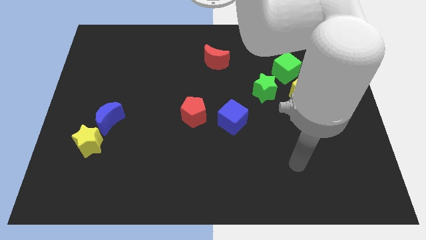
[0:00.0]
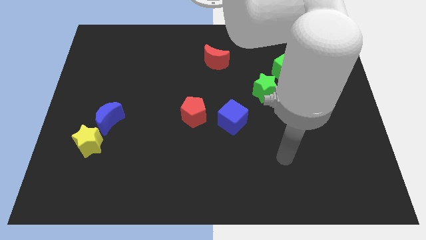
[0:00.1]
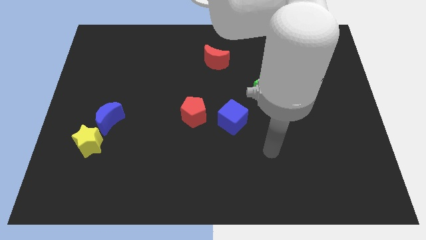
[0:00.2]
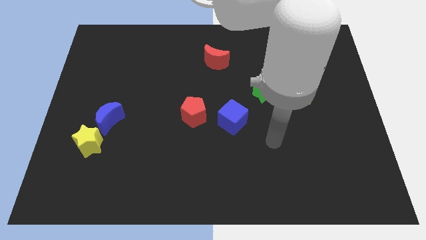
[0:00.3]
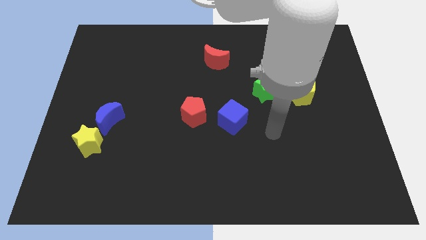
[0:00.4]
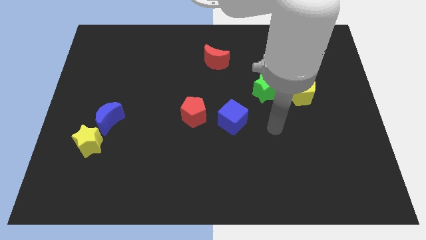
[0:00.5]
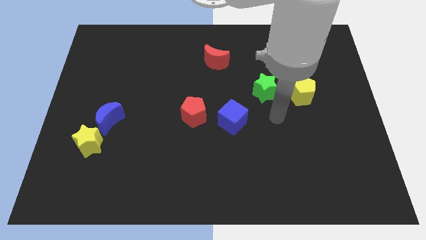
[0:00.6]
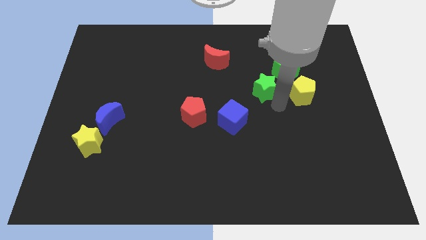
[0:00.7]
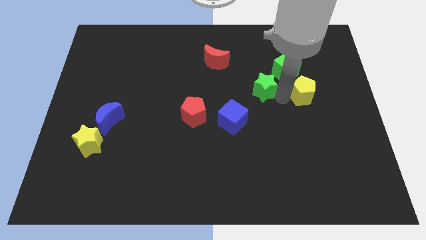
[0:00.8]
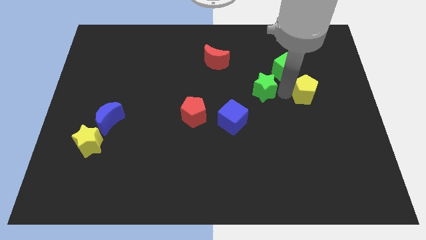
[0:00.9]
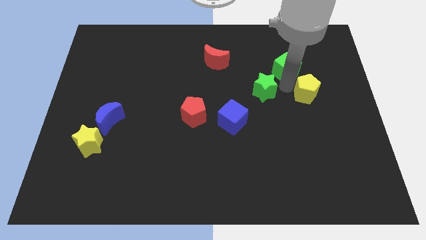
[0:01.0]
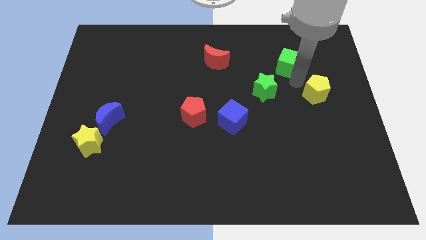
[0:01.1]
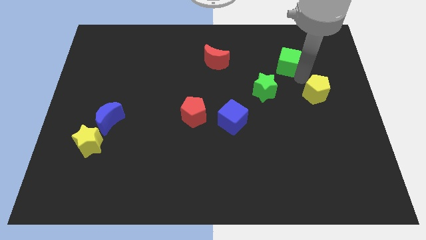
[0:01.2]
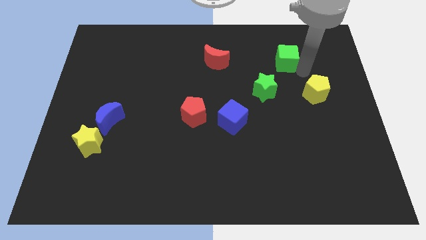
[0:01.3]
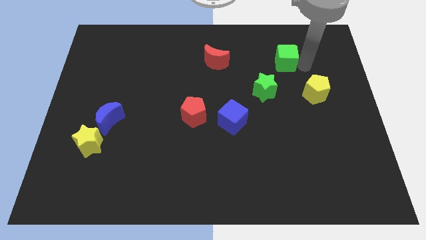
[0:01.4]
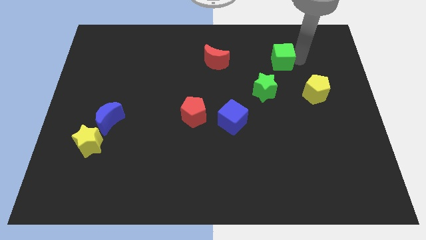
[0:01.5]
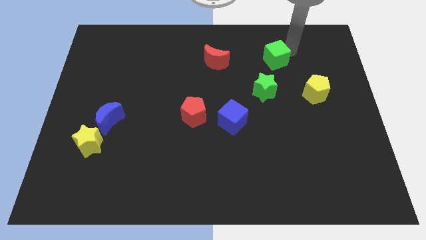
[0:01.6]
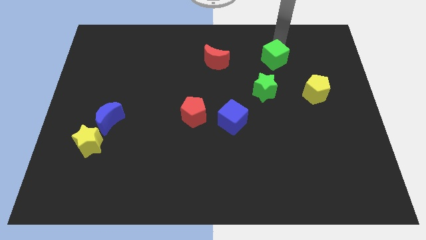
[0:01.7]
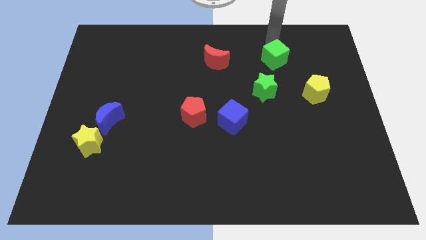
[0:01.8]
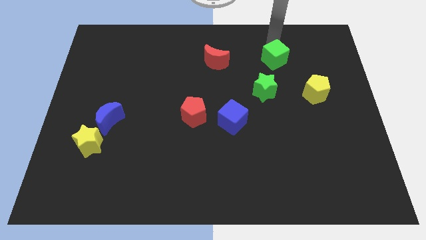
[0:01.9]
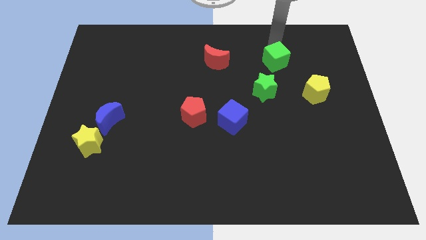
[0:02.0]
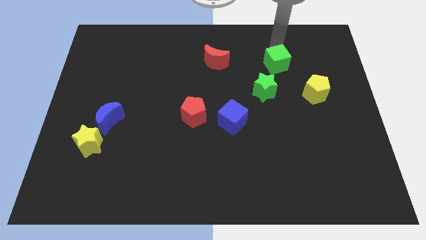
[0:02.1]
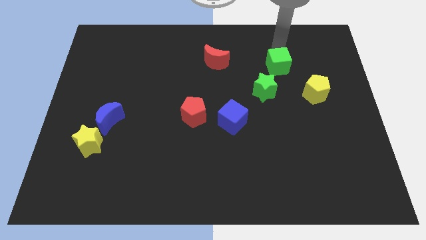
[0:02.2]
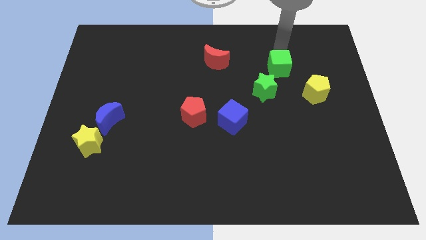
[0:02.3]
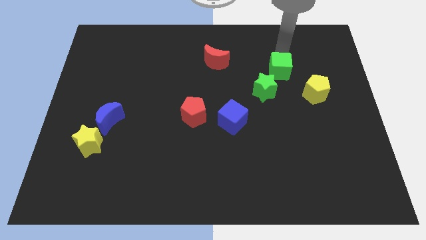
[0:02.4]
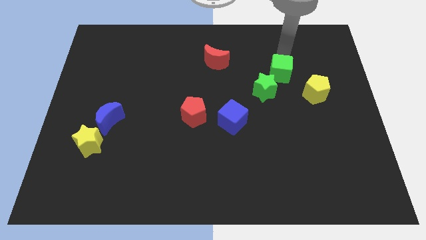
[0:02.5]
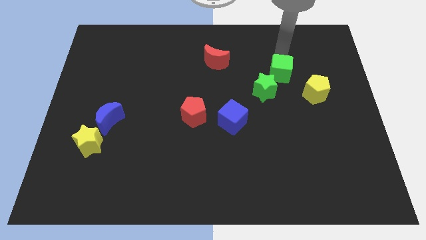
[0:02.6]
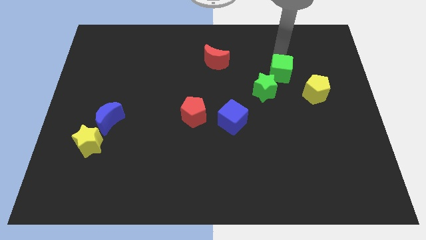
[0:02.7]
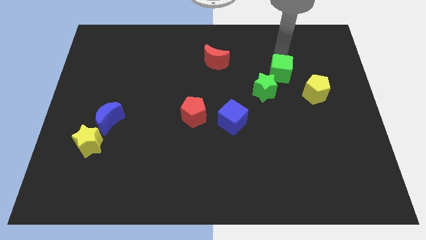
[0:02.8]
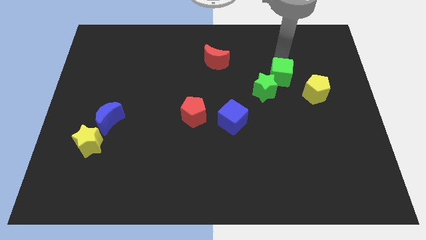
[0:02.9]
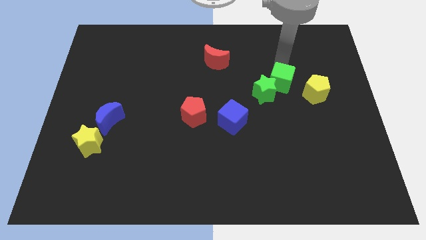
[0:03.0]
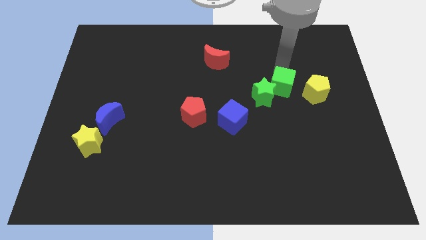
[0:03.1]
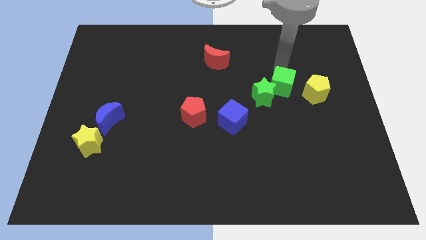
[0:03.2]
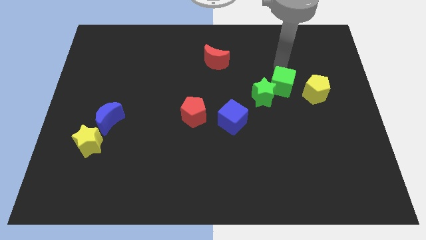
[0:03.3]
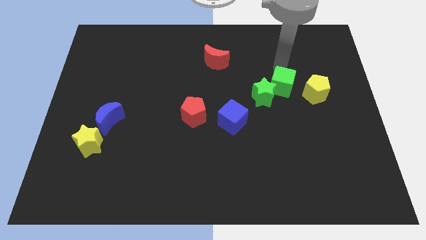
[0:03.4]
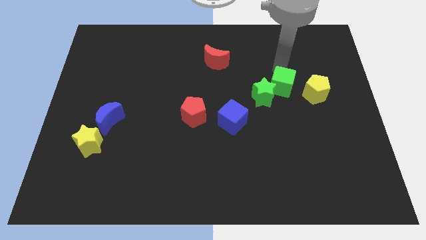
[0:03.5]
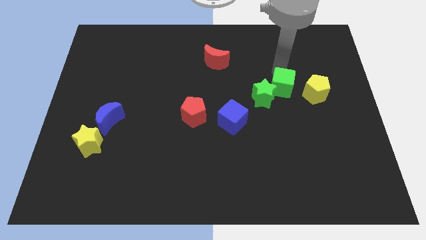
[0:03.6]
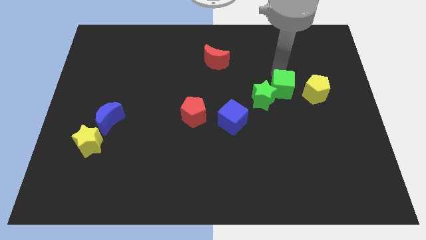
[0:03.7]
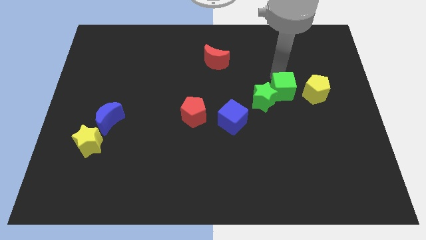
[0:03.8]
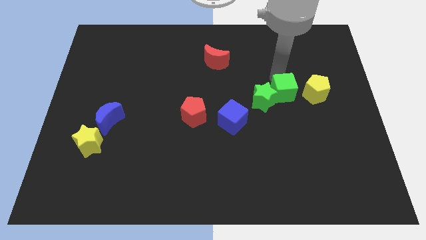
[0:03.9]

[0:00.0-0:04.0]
slightly move the green cube downwards

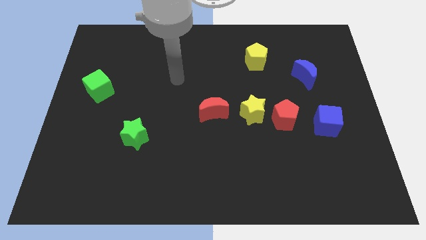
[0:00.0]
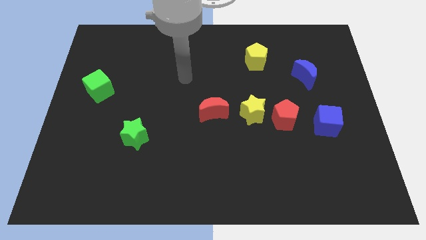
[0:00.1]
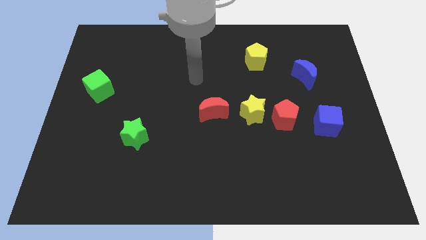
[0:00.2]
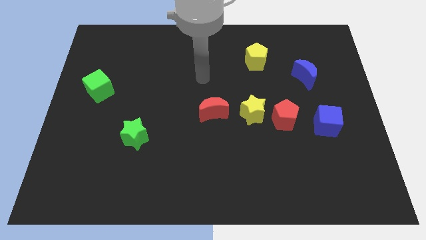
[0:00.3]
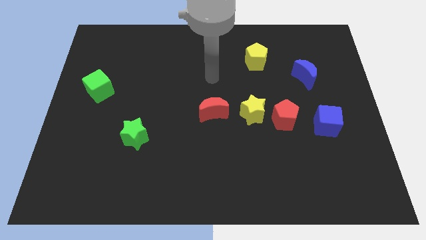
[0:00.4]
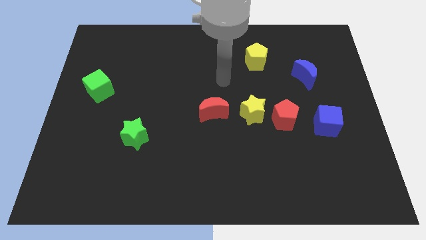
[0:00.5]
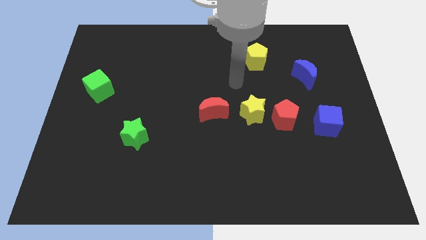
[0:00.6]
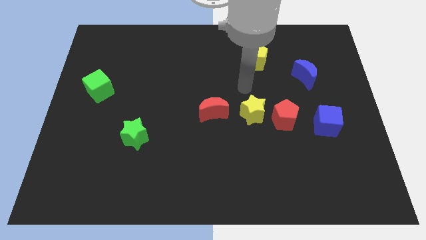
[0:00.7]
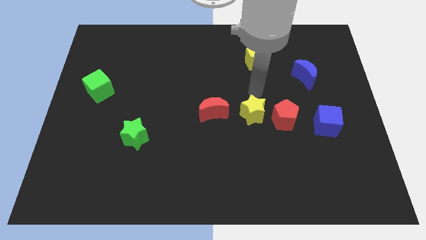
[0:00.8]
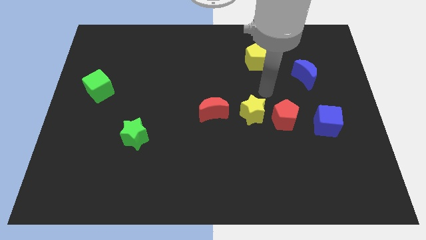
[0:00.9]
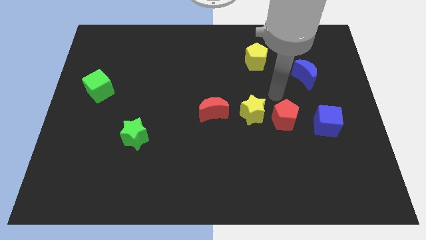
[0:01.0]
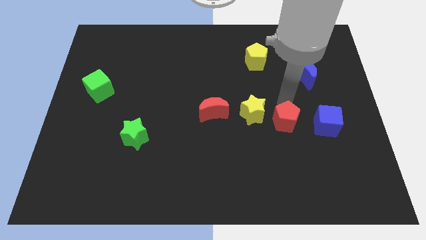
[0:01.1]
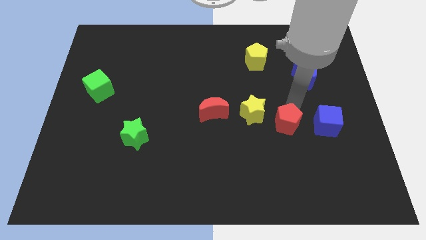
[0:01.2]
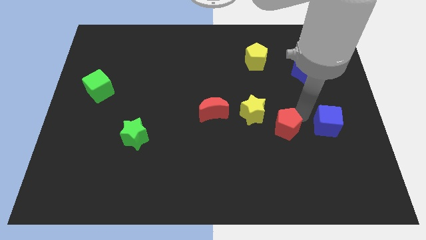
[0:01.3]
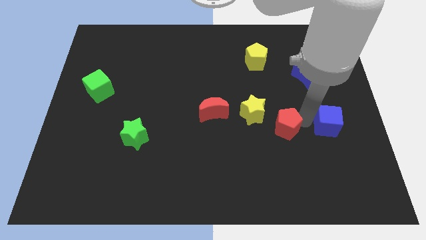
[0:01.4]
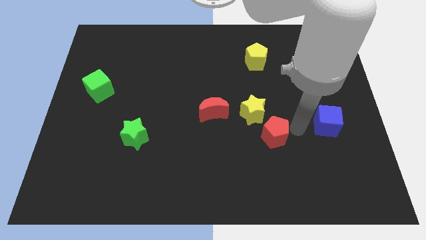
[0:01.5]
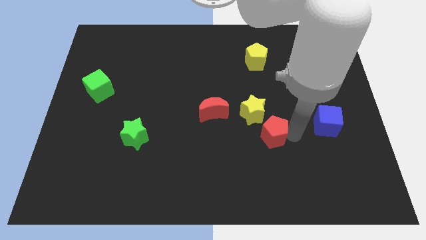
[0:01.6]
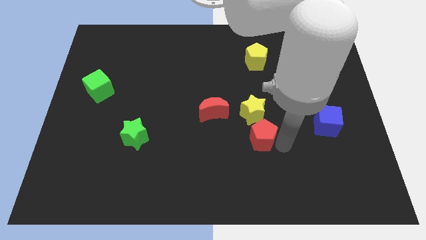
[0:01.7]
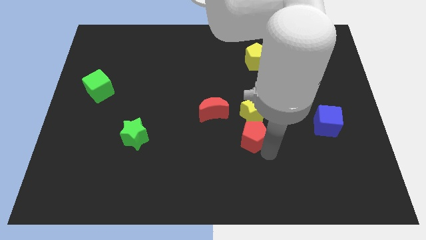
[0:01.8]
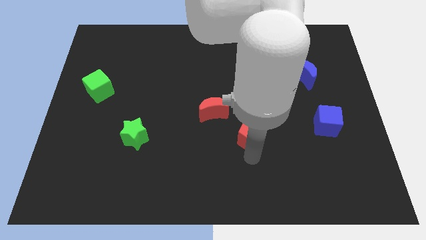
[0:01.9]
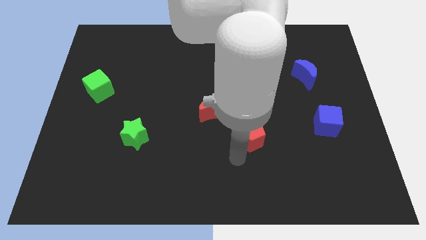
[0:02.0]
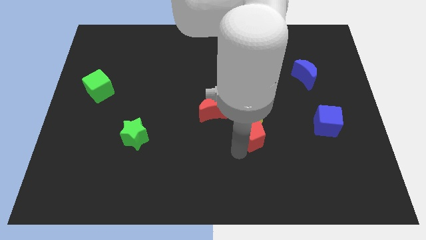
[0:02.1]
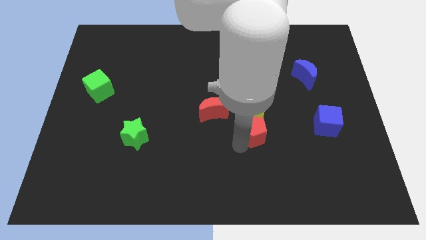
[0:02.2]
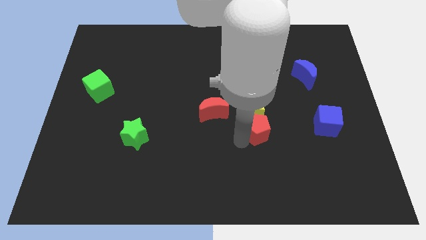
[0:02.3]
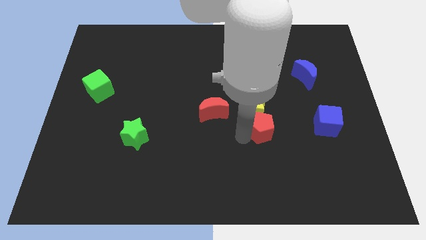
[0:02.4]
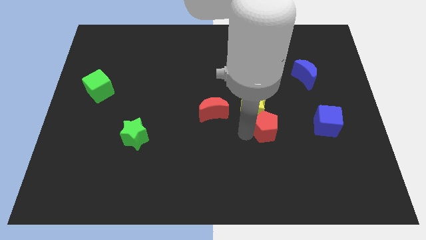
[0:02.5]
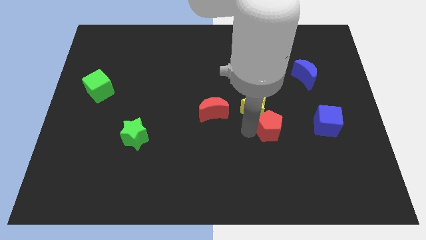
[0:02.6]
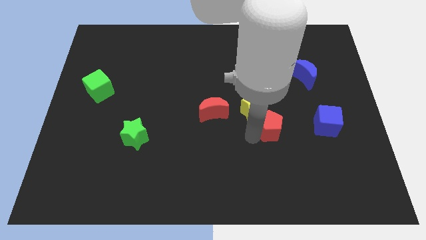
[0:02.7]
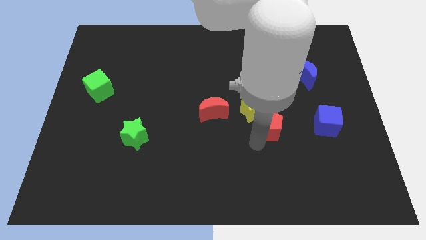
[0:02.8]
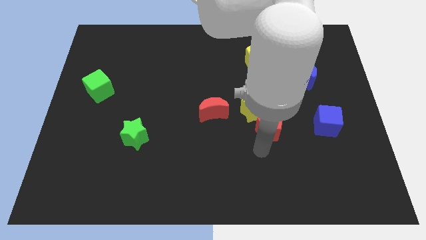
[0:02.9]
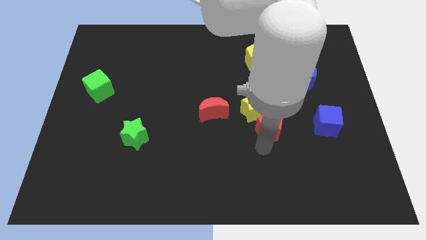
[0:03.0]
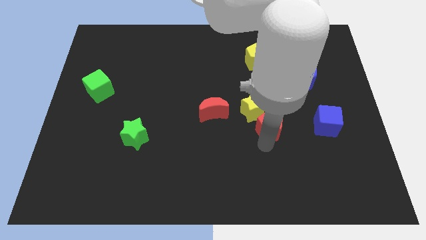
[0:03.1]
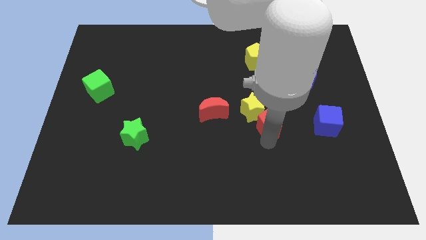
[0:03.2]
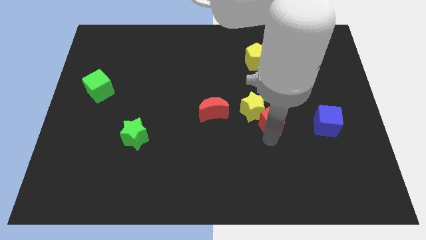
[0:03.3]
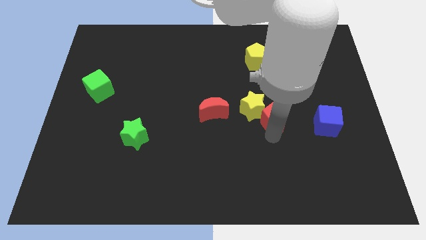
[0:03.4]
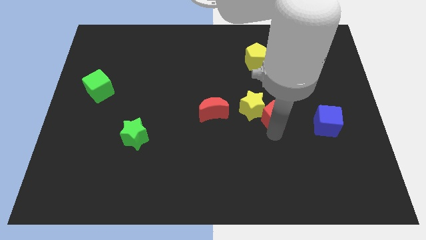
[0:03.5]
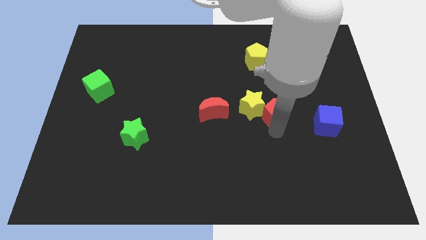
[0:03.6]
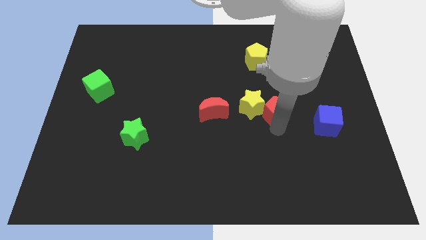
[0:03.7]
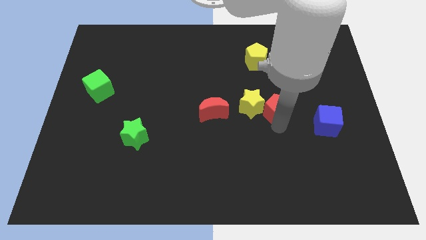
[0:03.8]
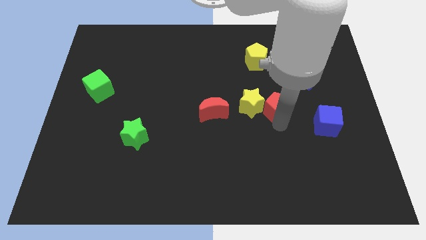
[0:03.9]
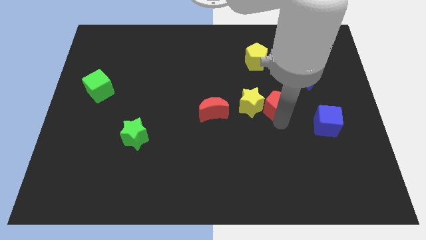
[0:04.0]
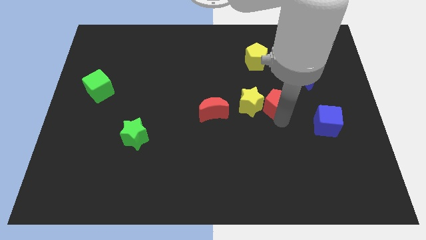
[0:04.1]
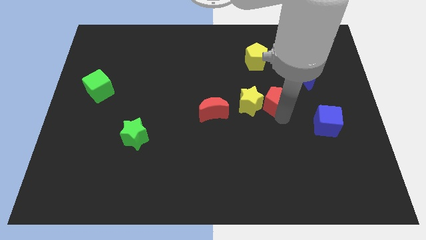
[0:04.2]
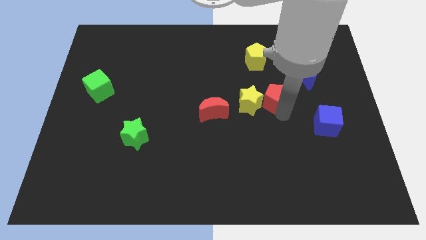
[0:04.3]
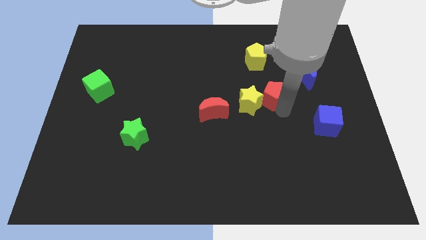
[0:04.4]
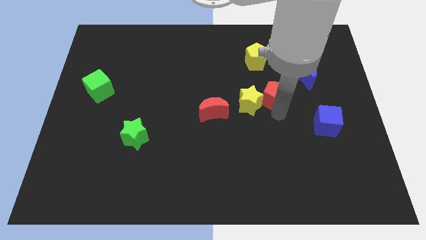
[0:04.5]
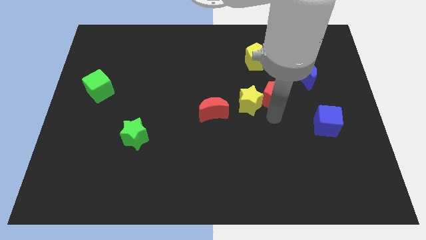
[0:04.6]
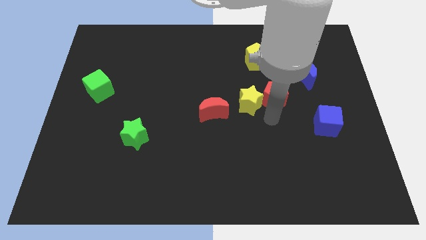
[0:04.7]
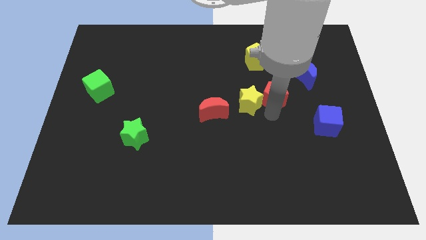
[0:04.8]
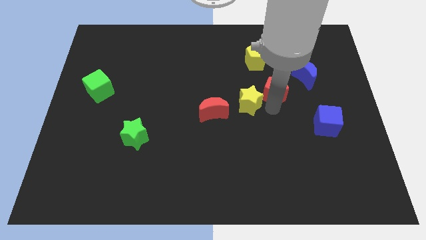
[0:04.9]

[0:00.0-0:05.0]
slide the red pentagon up somewhat
